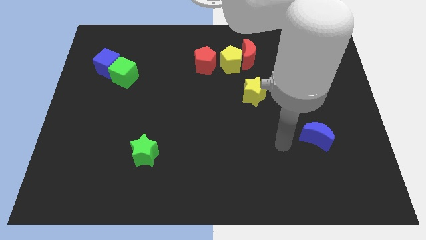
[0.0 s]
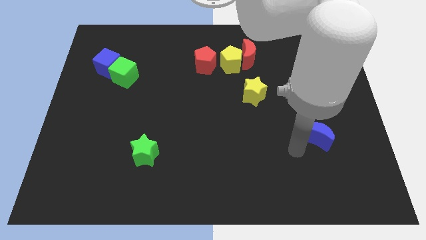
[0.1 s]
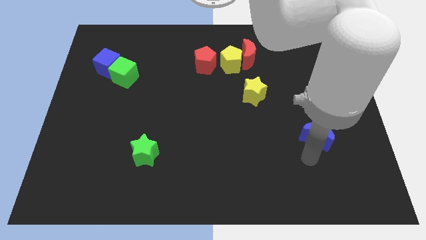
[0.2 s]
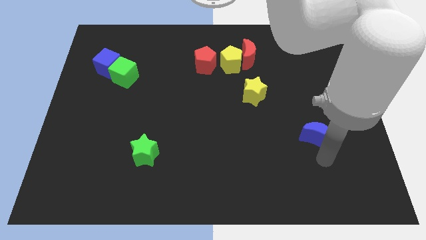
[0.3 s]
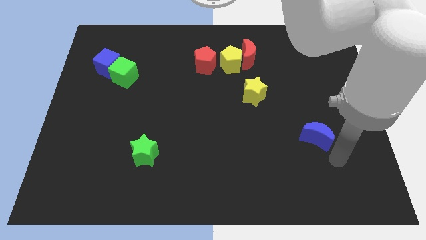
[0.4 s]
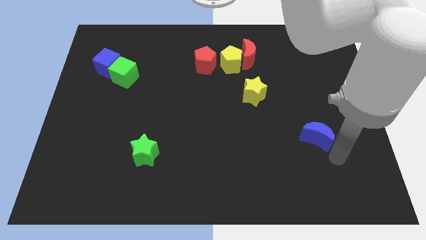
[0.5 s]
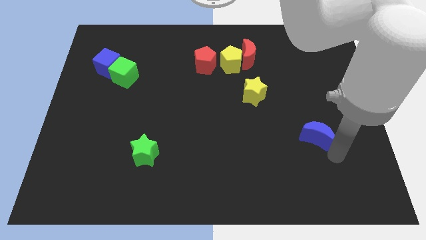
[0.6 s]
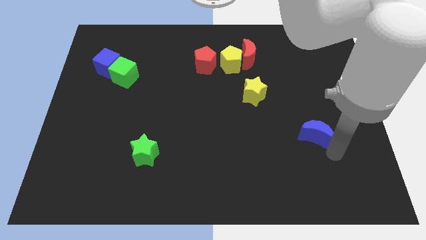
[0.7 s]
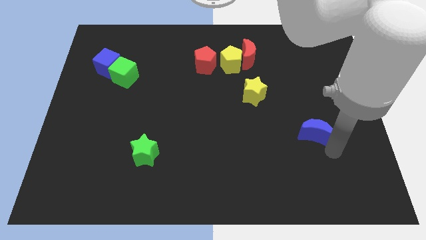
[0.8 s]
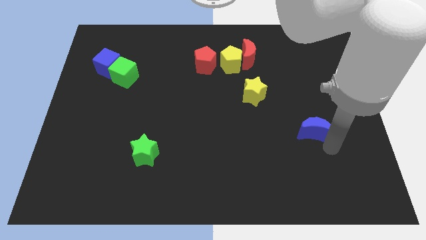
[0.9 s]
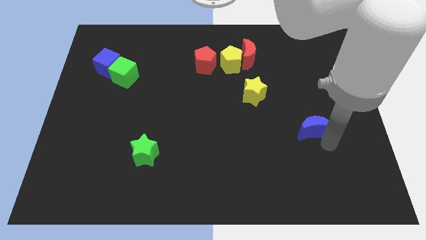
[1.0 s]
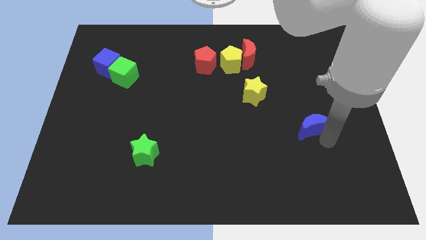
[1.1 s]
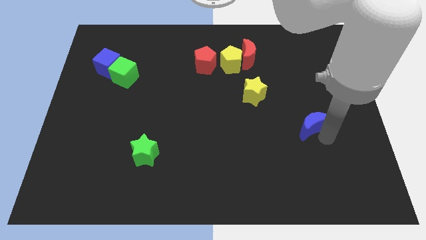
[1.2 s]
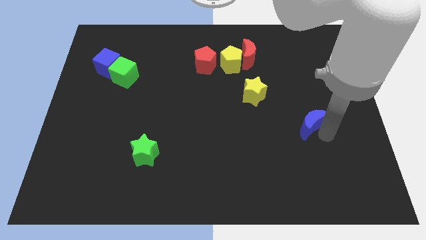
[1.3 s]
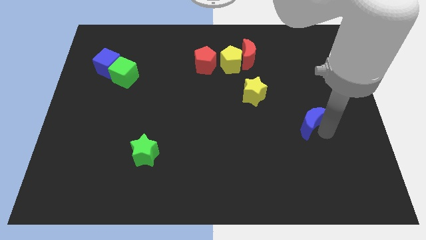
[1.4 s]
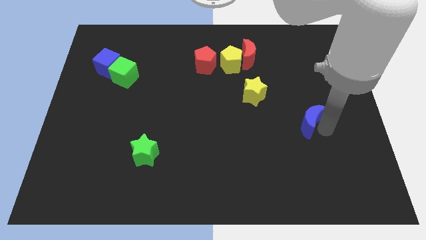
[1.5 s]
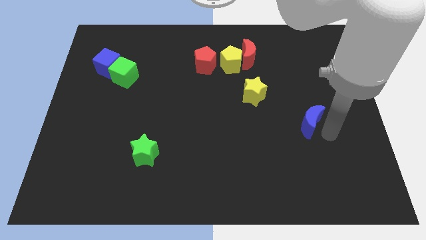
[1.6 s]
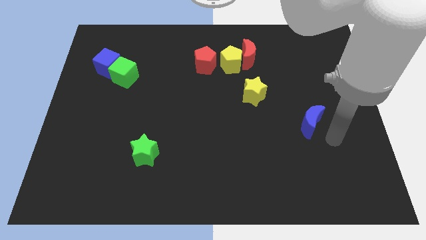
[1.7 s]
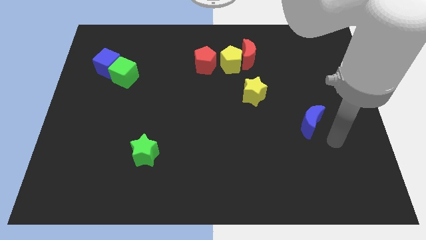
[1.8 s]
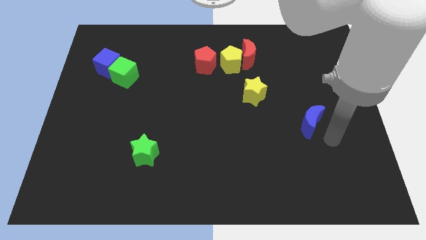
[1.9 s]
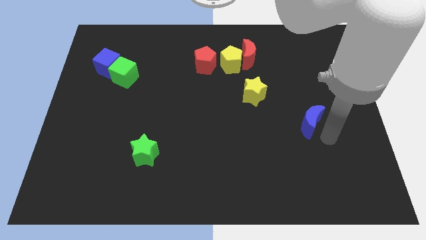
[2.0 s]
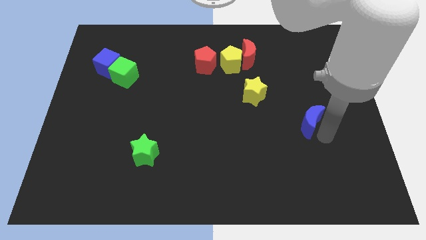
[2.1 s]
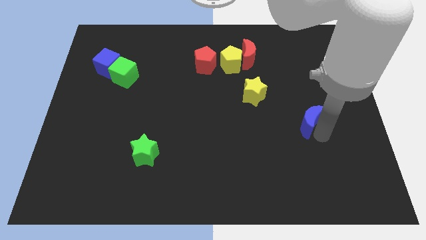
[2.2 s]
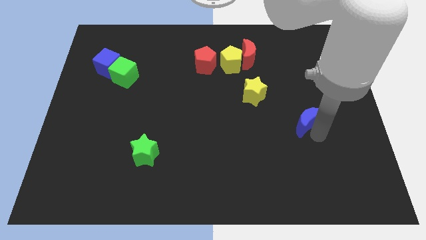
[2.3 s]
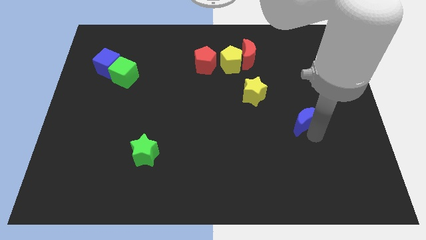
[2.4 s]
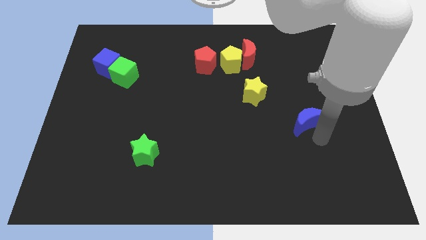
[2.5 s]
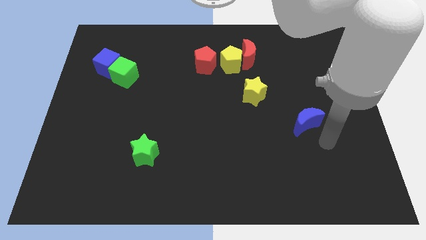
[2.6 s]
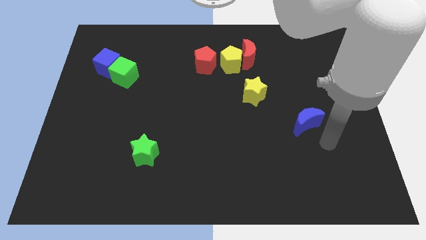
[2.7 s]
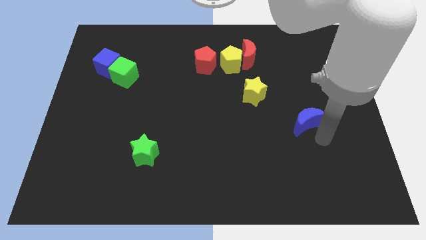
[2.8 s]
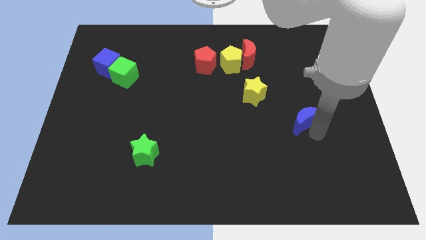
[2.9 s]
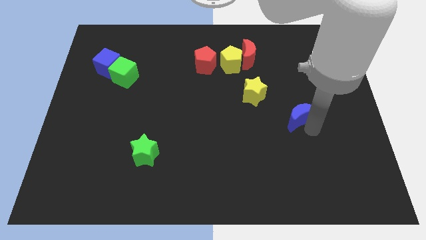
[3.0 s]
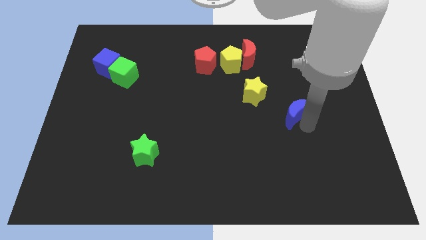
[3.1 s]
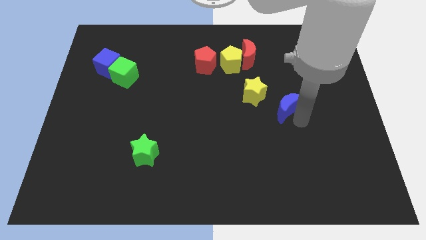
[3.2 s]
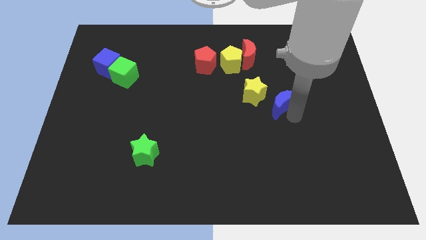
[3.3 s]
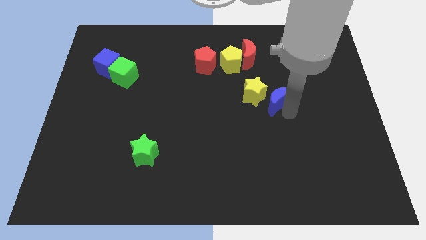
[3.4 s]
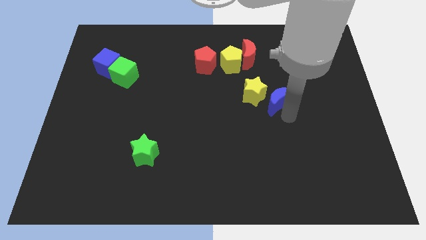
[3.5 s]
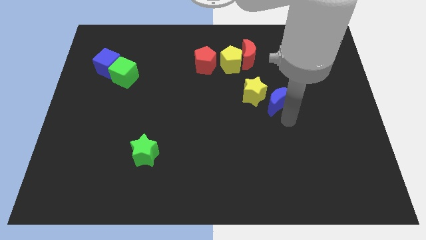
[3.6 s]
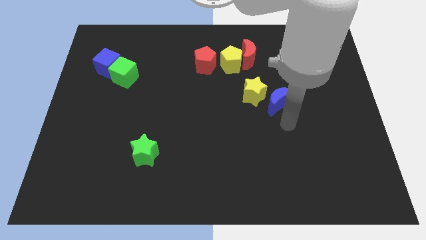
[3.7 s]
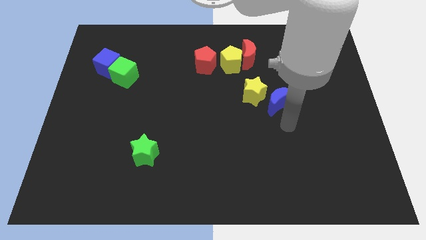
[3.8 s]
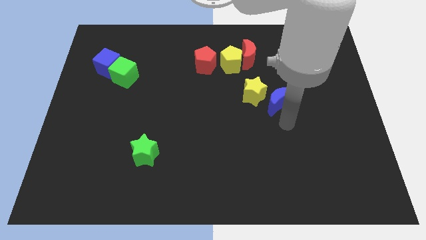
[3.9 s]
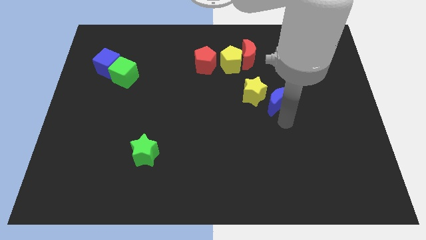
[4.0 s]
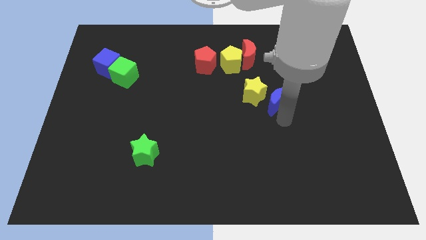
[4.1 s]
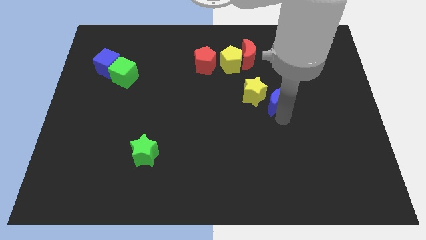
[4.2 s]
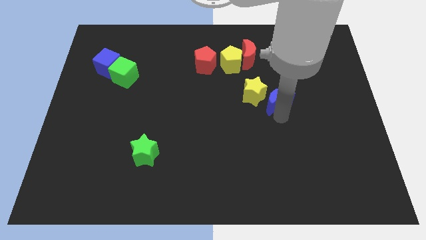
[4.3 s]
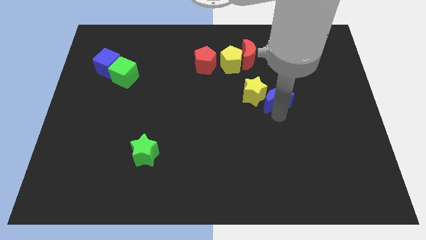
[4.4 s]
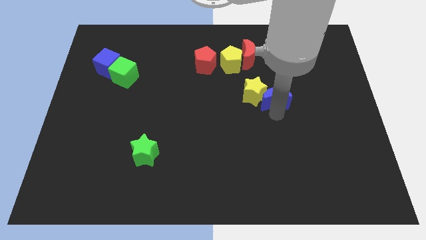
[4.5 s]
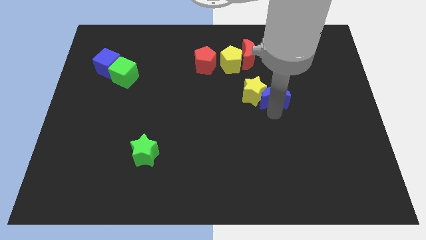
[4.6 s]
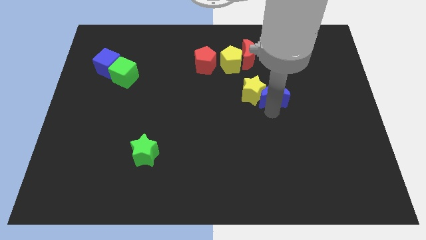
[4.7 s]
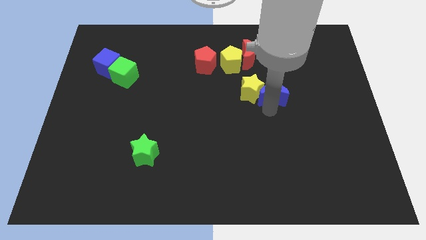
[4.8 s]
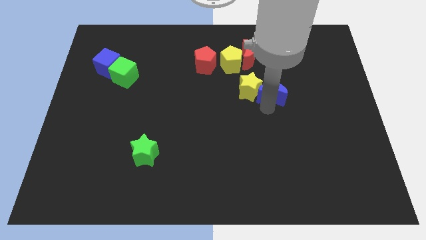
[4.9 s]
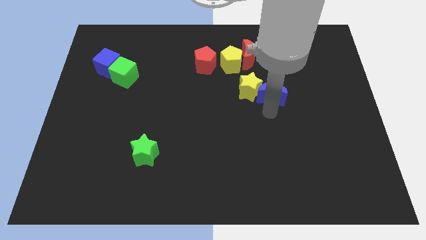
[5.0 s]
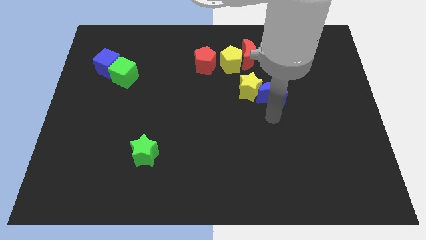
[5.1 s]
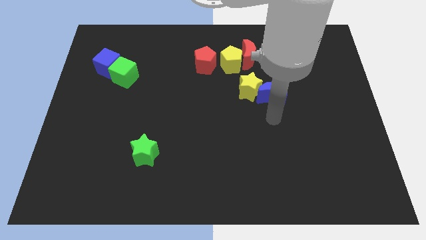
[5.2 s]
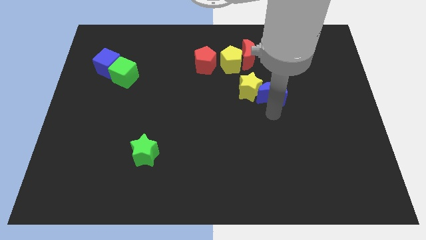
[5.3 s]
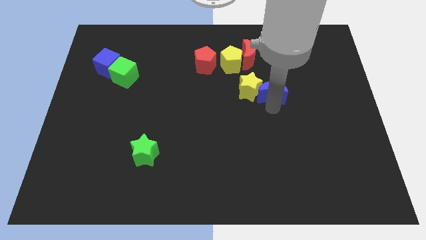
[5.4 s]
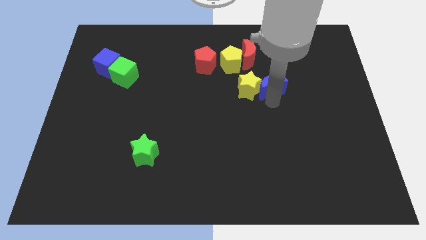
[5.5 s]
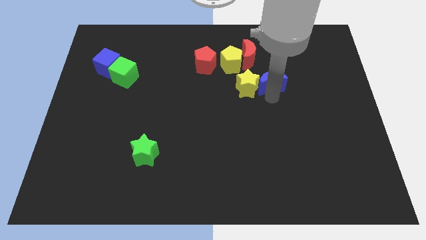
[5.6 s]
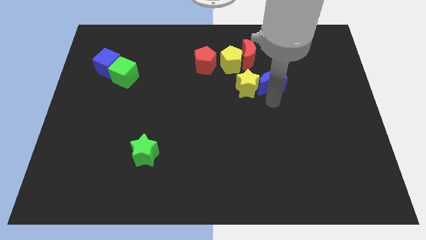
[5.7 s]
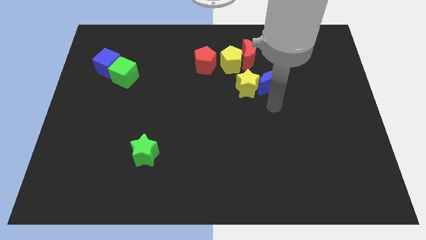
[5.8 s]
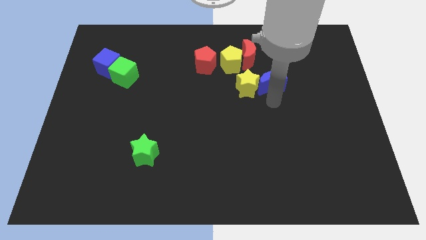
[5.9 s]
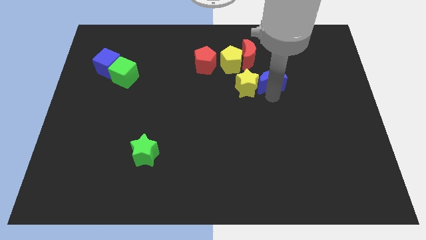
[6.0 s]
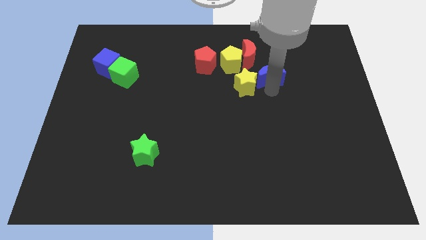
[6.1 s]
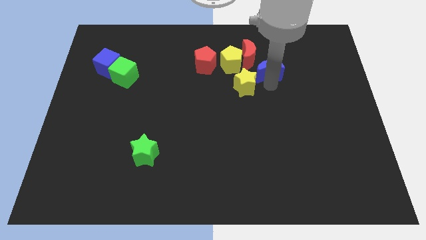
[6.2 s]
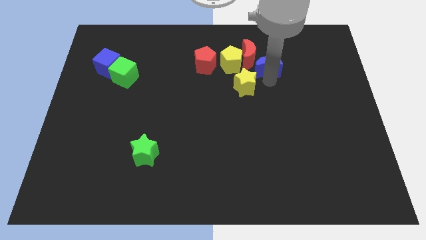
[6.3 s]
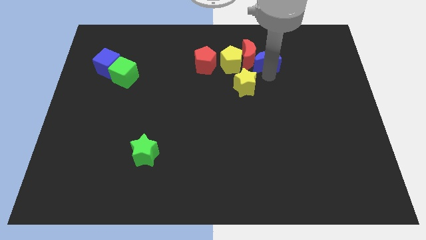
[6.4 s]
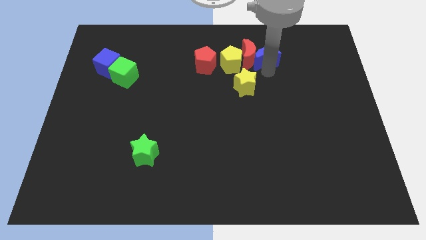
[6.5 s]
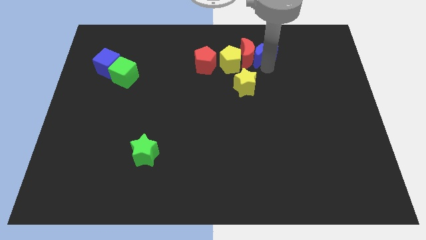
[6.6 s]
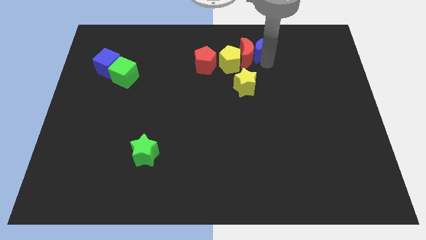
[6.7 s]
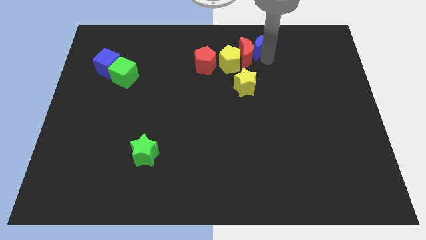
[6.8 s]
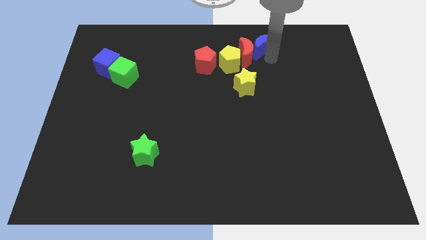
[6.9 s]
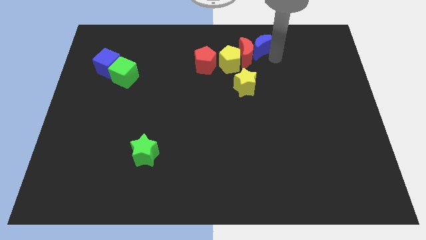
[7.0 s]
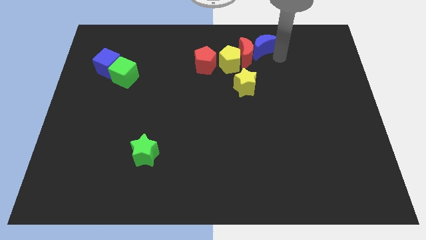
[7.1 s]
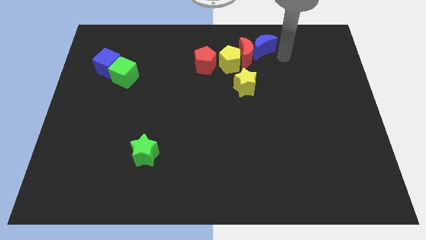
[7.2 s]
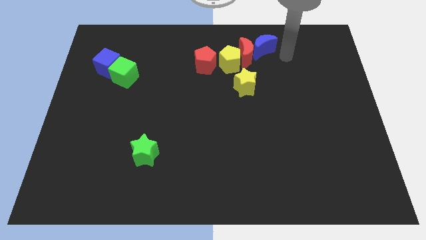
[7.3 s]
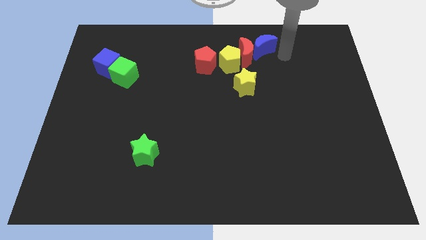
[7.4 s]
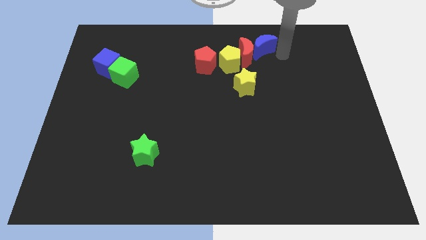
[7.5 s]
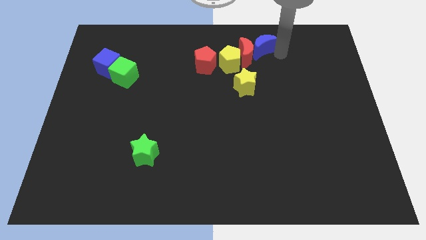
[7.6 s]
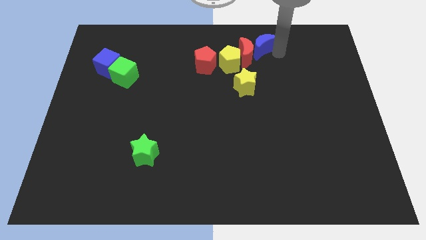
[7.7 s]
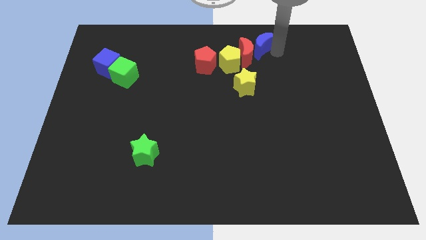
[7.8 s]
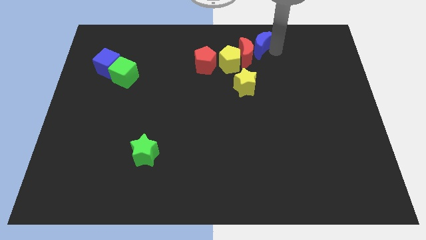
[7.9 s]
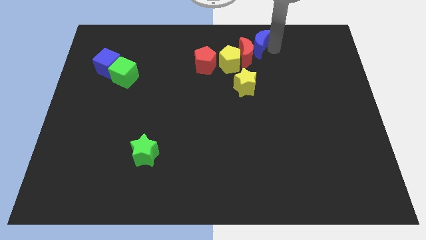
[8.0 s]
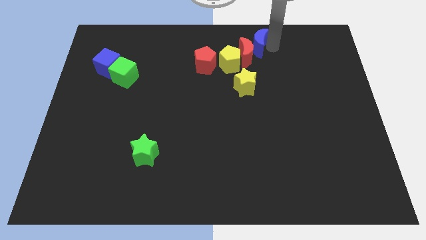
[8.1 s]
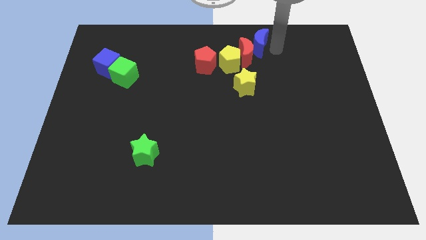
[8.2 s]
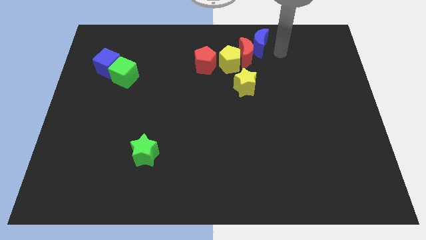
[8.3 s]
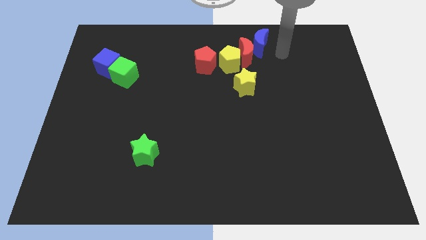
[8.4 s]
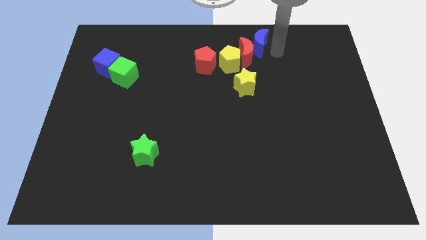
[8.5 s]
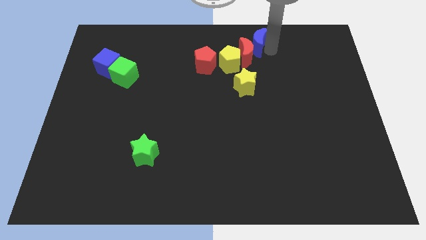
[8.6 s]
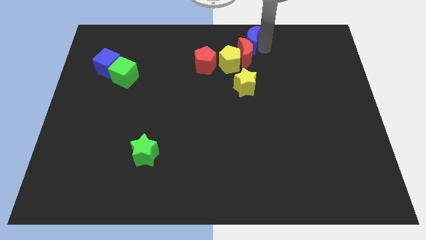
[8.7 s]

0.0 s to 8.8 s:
move the blue moon to the top
